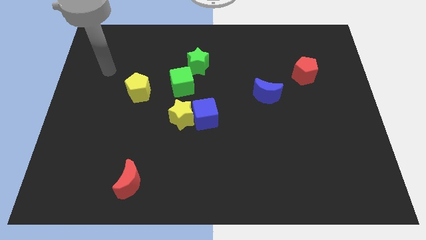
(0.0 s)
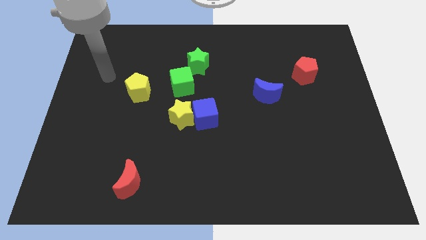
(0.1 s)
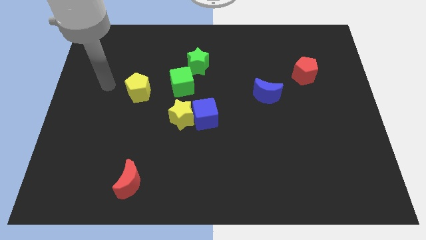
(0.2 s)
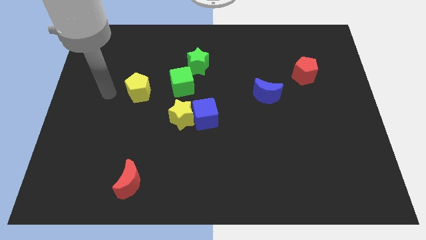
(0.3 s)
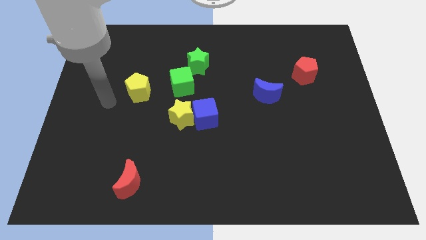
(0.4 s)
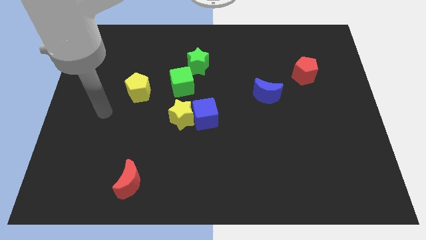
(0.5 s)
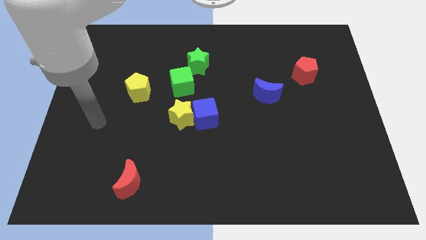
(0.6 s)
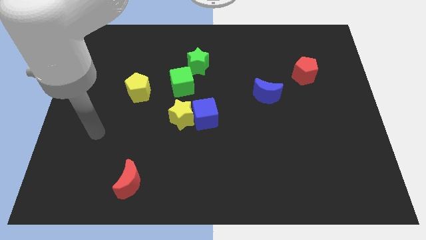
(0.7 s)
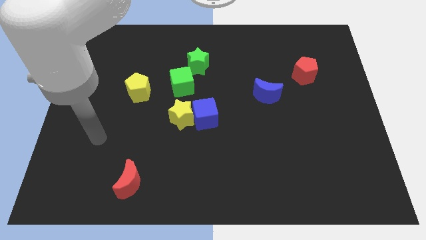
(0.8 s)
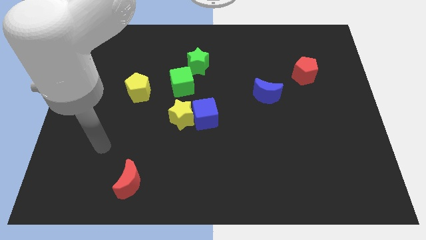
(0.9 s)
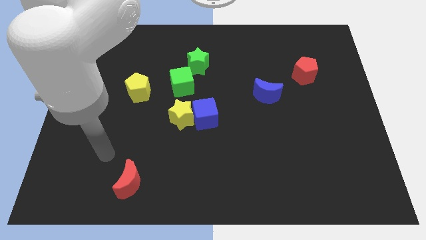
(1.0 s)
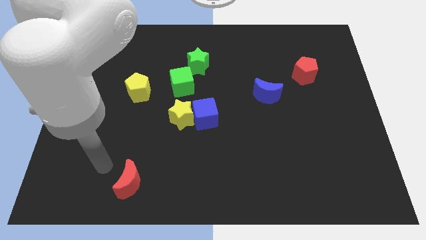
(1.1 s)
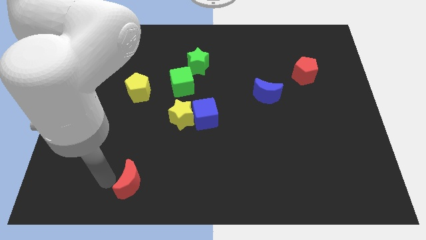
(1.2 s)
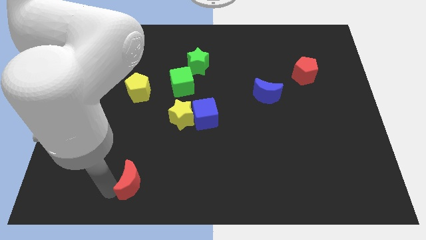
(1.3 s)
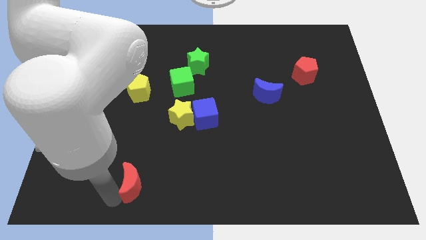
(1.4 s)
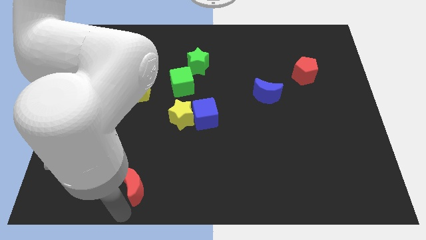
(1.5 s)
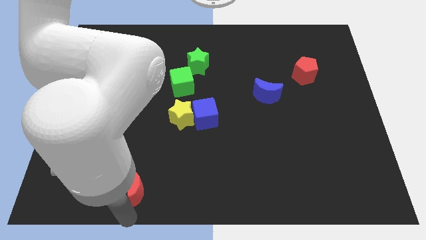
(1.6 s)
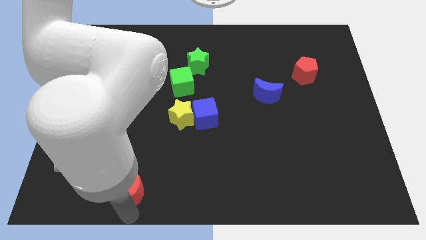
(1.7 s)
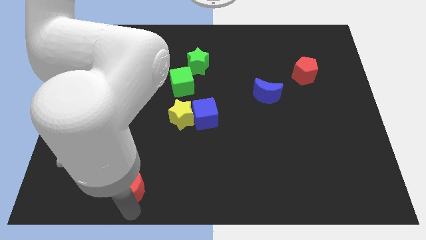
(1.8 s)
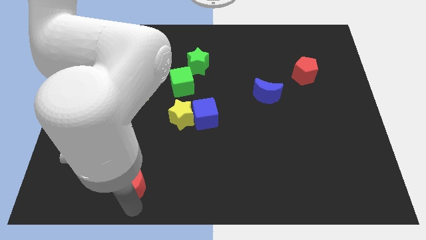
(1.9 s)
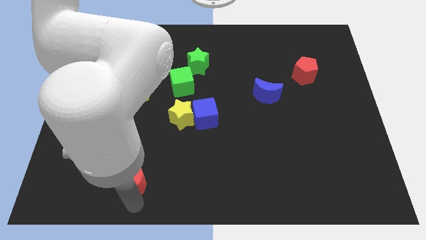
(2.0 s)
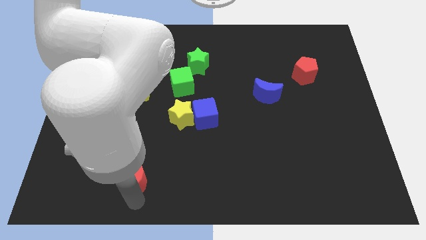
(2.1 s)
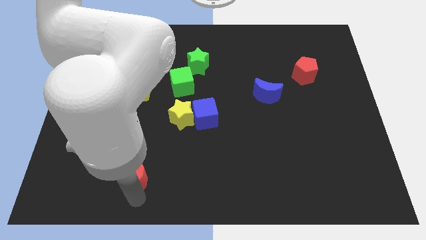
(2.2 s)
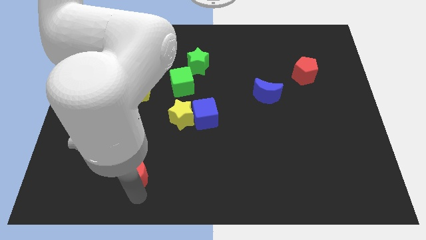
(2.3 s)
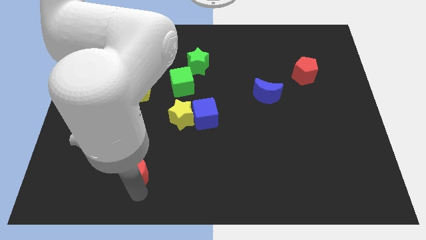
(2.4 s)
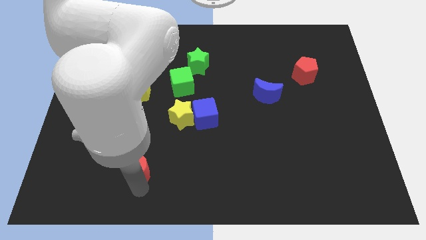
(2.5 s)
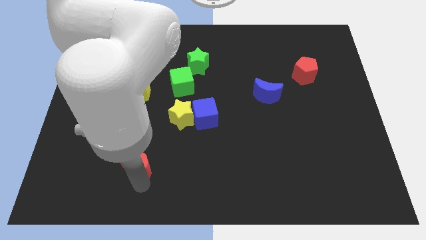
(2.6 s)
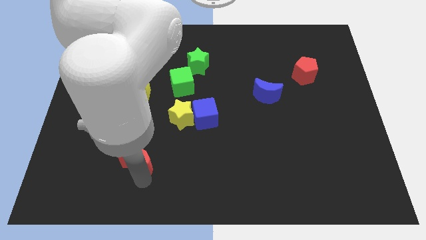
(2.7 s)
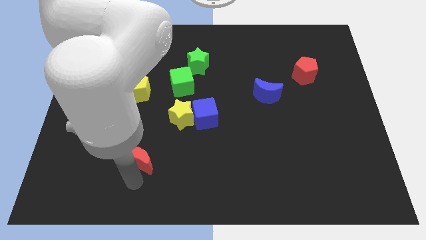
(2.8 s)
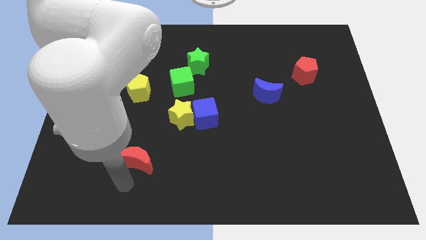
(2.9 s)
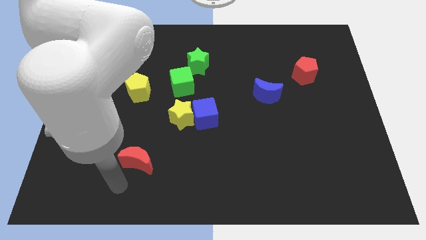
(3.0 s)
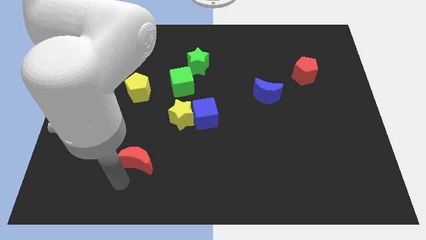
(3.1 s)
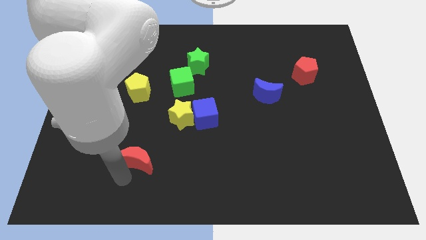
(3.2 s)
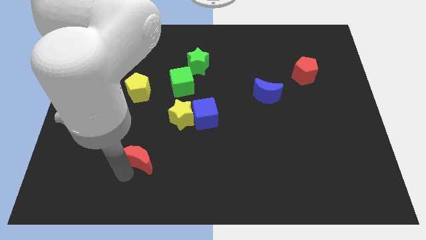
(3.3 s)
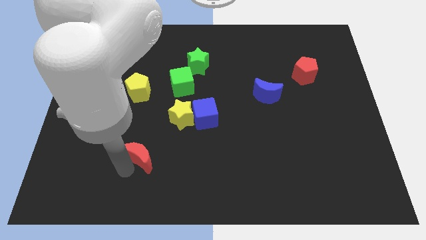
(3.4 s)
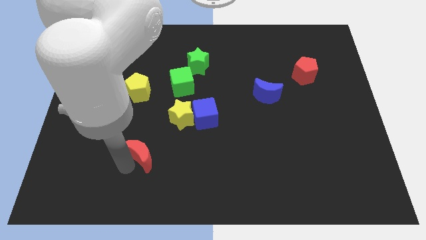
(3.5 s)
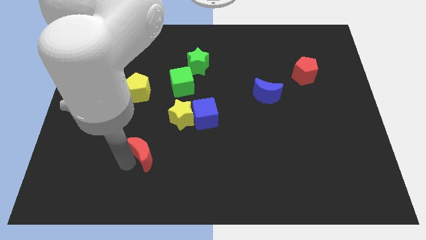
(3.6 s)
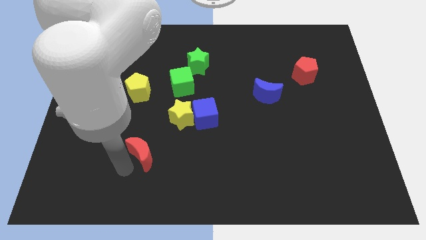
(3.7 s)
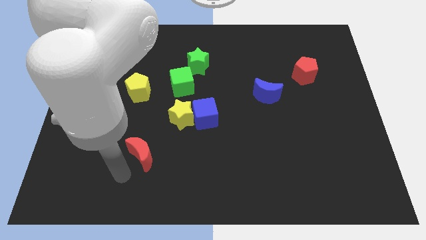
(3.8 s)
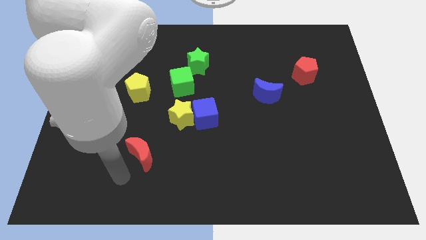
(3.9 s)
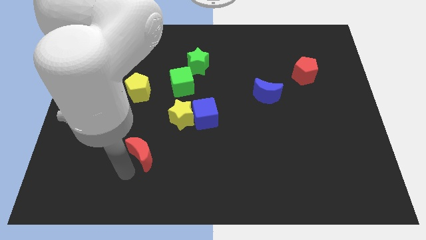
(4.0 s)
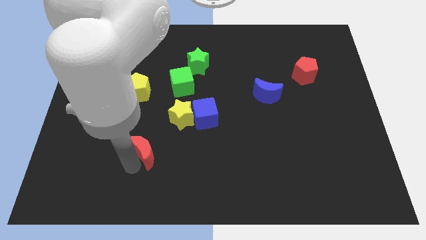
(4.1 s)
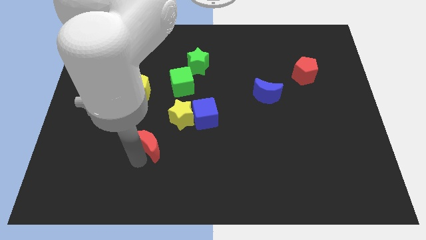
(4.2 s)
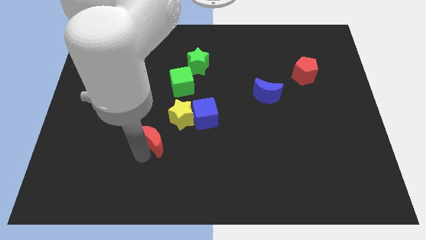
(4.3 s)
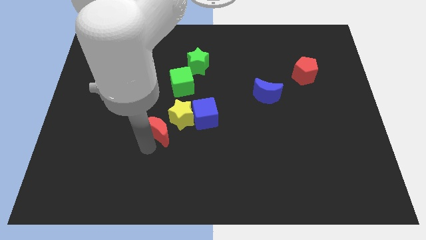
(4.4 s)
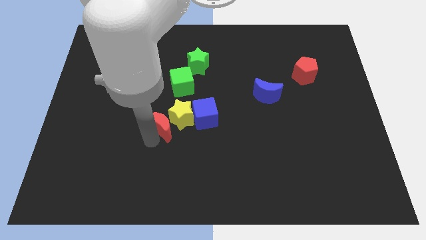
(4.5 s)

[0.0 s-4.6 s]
push the red moon to the yellow star

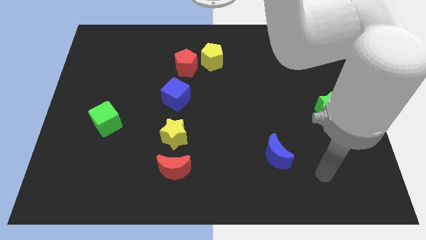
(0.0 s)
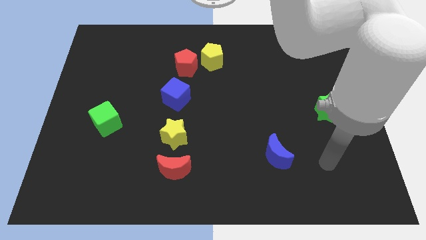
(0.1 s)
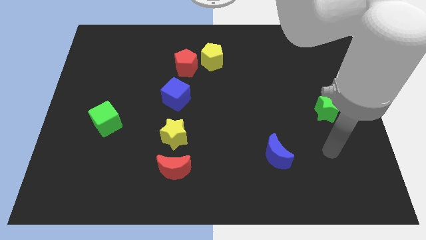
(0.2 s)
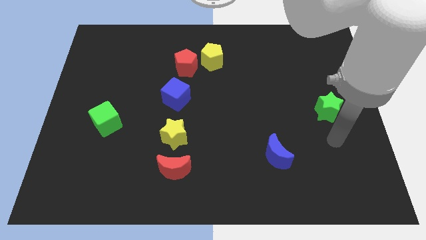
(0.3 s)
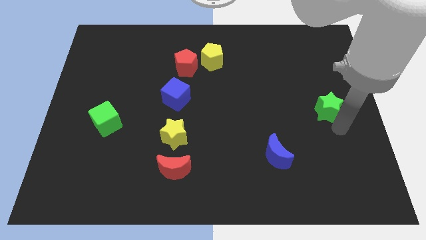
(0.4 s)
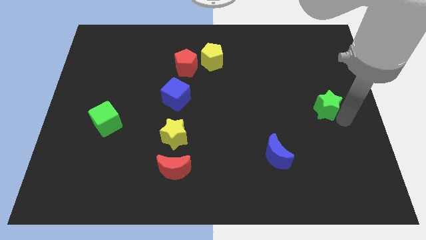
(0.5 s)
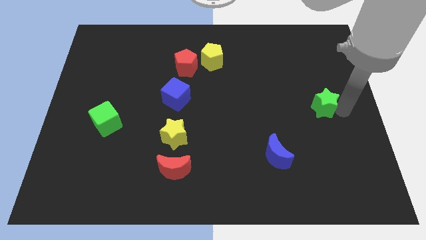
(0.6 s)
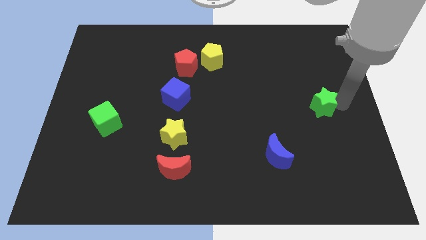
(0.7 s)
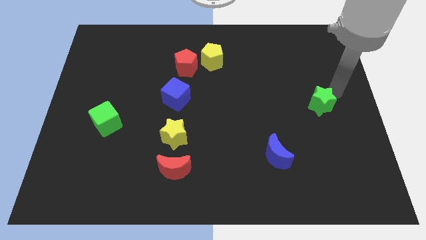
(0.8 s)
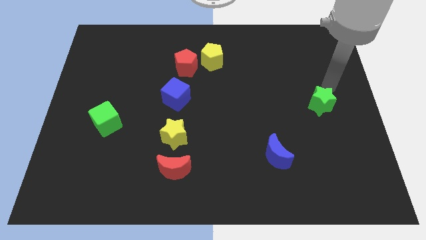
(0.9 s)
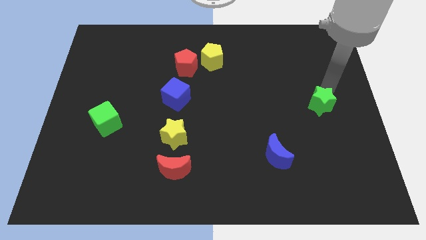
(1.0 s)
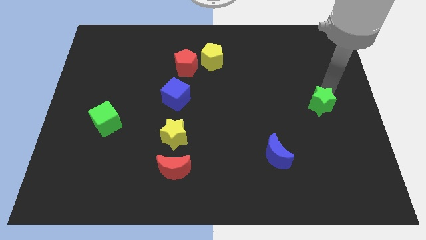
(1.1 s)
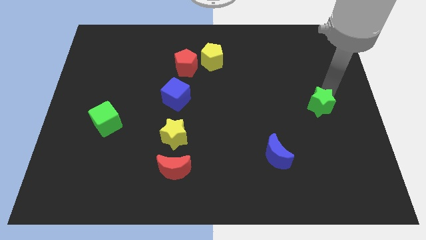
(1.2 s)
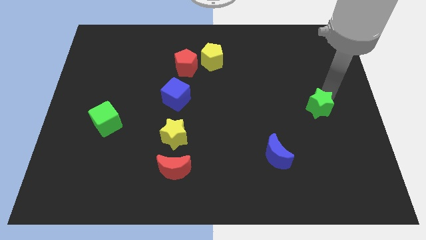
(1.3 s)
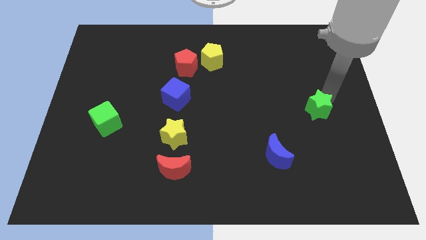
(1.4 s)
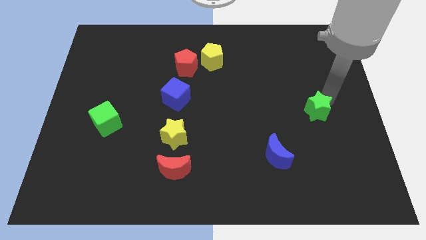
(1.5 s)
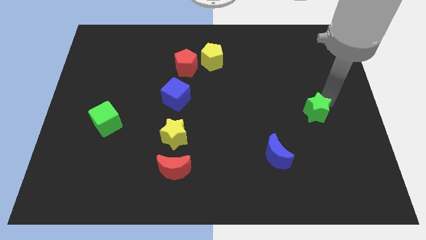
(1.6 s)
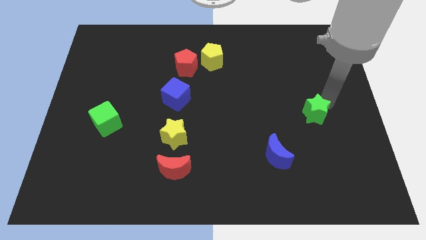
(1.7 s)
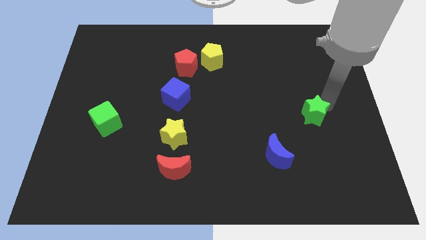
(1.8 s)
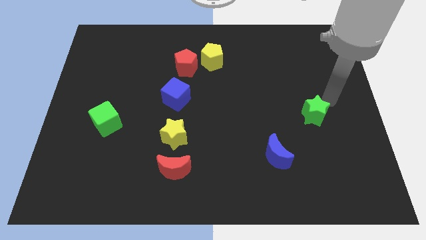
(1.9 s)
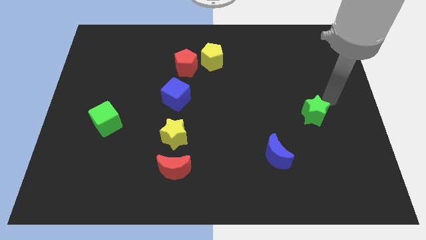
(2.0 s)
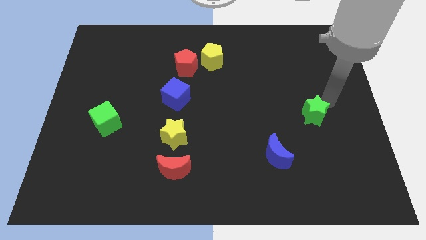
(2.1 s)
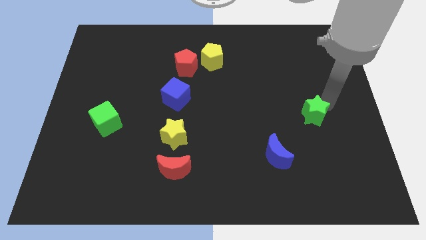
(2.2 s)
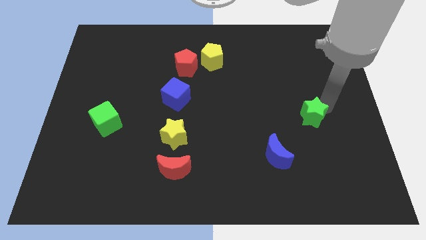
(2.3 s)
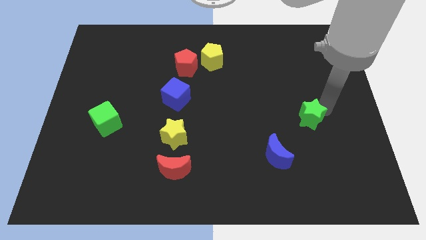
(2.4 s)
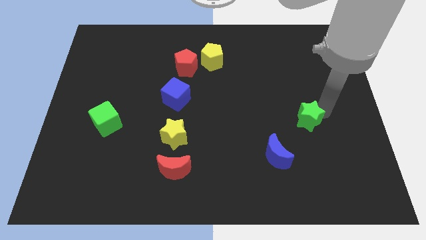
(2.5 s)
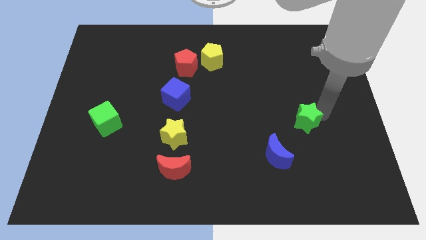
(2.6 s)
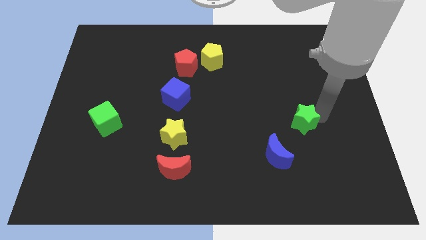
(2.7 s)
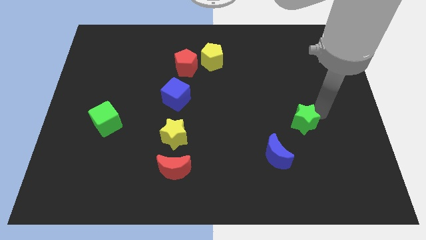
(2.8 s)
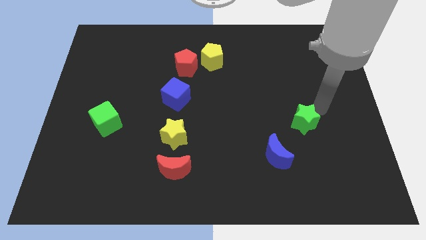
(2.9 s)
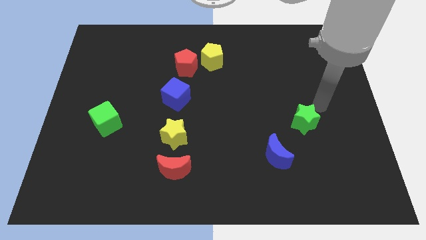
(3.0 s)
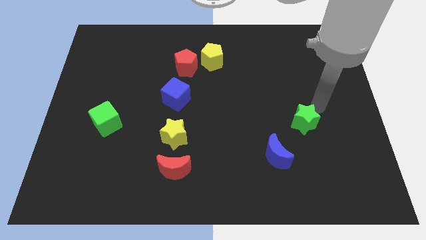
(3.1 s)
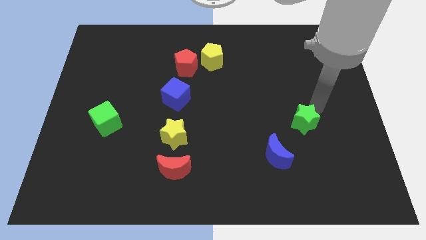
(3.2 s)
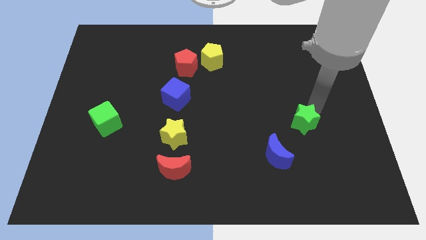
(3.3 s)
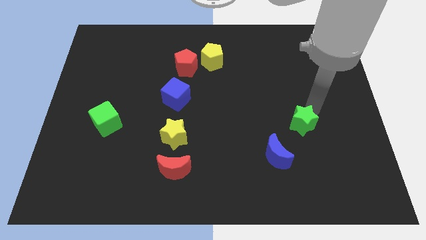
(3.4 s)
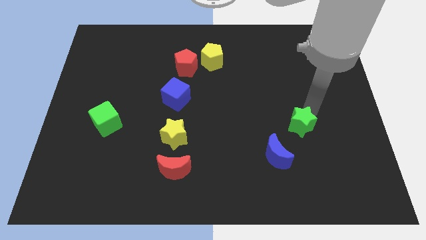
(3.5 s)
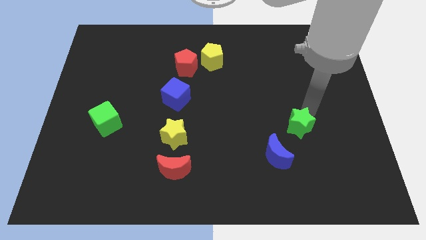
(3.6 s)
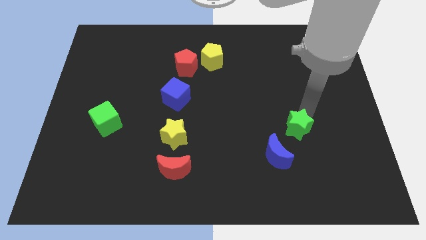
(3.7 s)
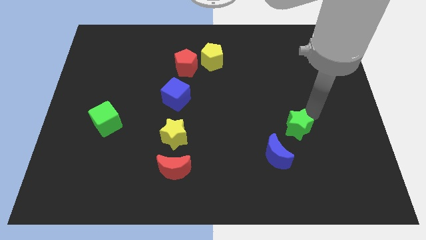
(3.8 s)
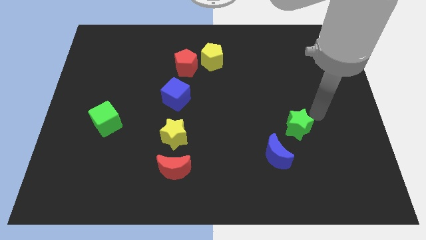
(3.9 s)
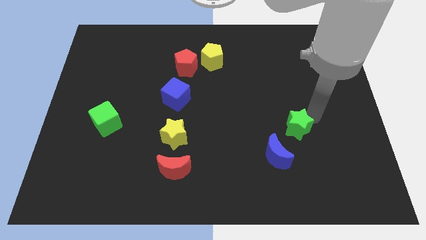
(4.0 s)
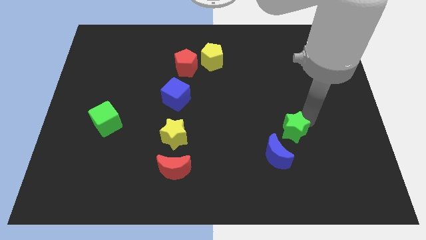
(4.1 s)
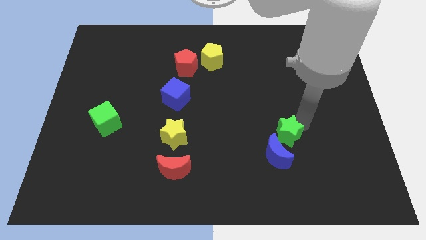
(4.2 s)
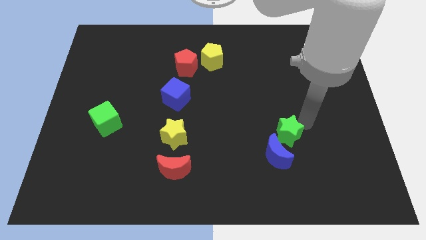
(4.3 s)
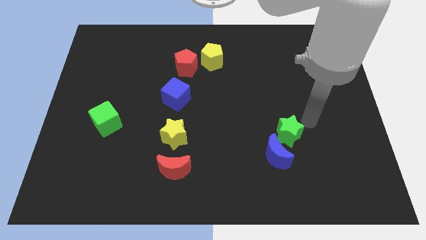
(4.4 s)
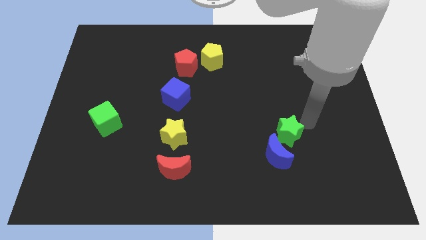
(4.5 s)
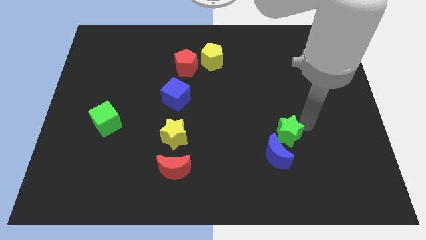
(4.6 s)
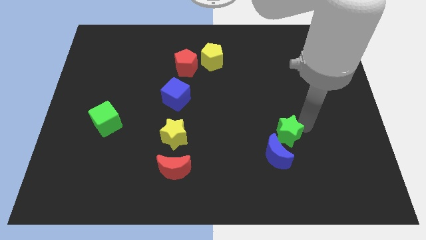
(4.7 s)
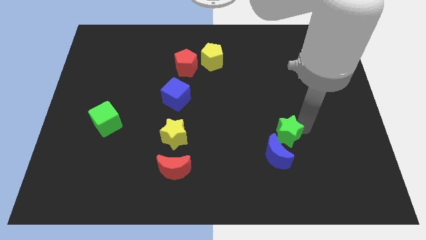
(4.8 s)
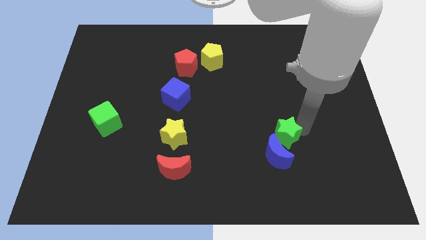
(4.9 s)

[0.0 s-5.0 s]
slide the green star next to the blue moon
